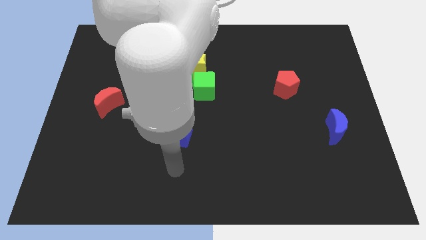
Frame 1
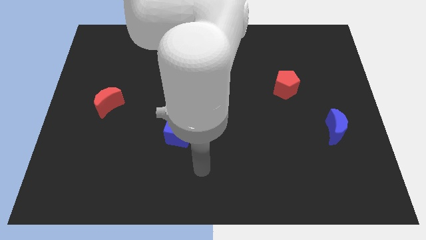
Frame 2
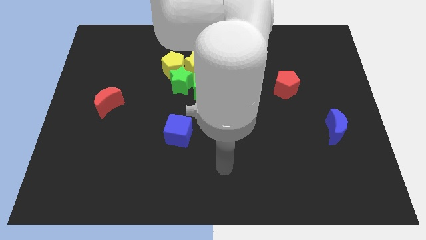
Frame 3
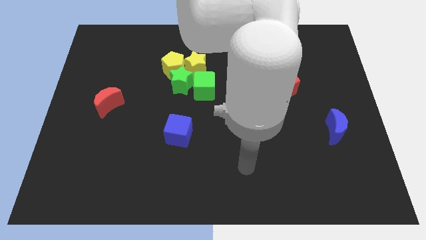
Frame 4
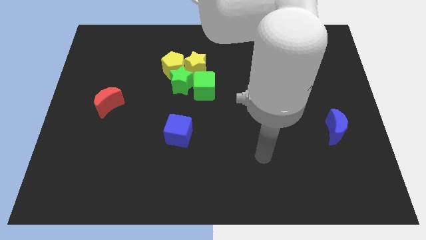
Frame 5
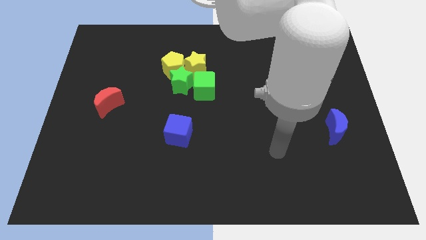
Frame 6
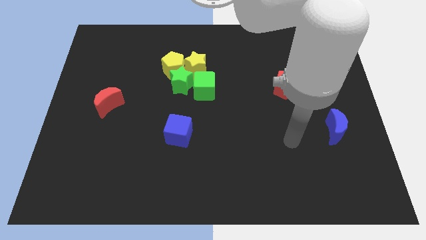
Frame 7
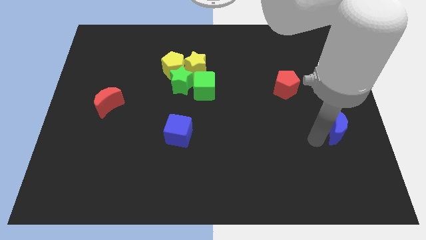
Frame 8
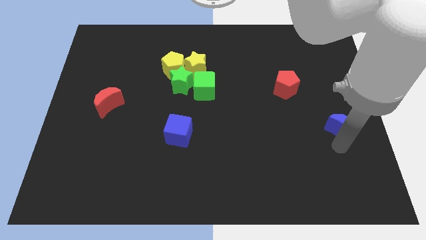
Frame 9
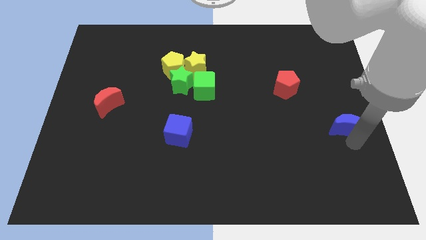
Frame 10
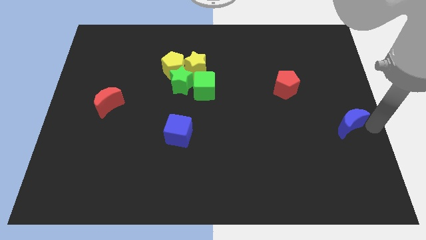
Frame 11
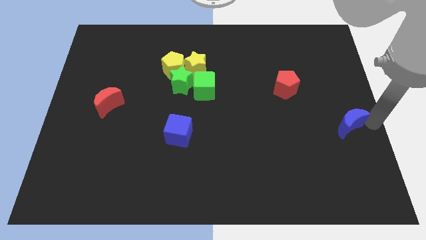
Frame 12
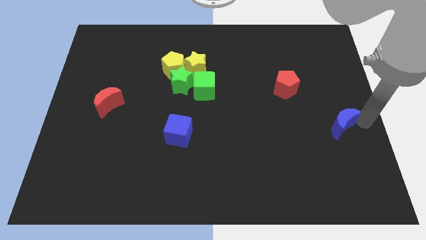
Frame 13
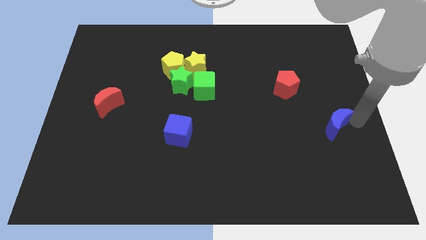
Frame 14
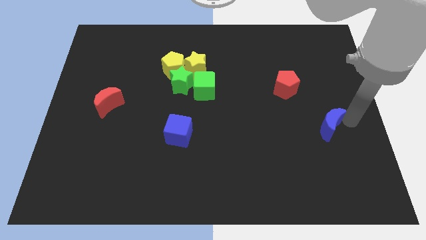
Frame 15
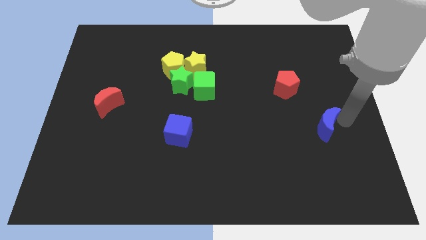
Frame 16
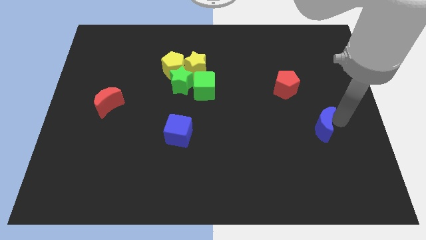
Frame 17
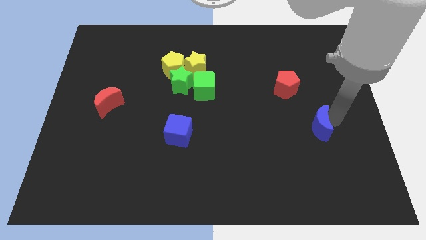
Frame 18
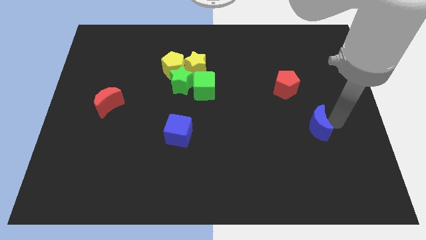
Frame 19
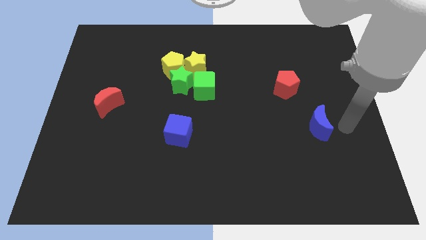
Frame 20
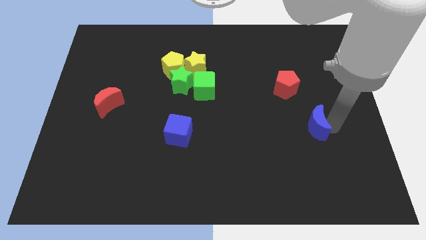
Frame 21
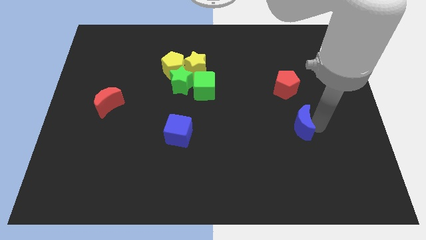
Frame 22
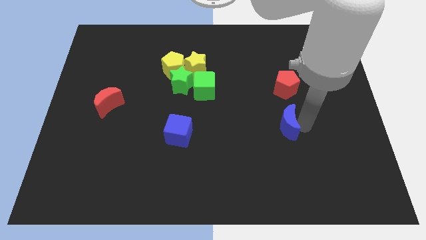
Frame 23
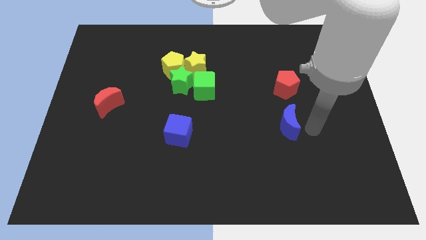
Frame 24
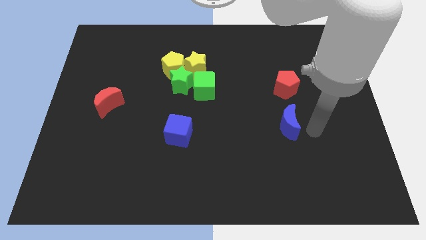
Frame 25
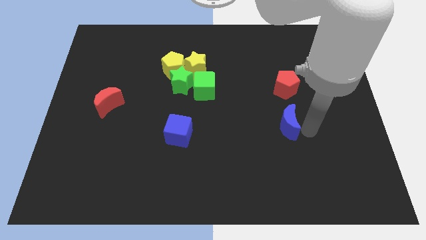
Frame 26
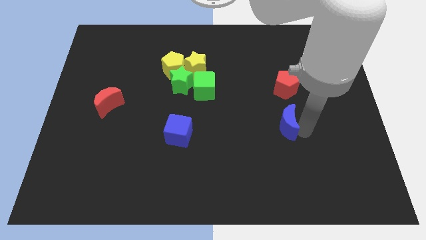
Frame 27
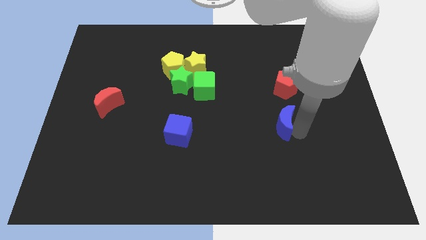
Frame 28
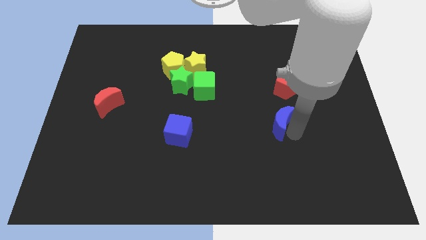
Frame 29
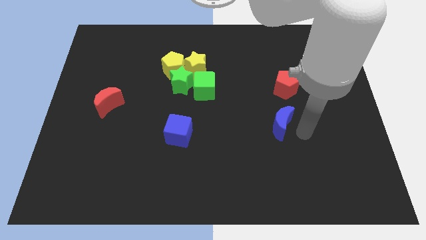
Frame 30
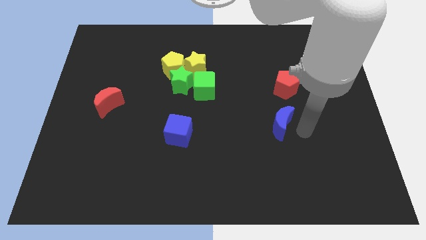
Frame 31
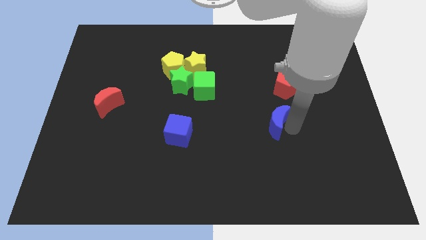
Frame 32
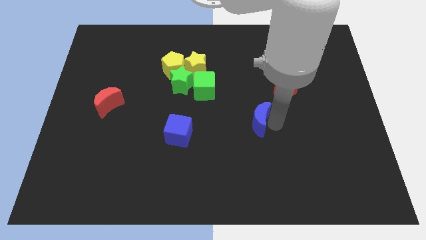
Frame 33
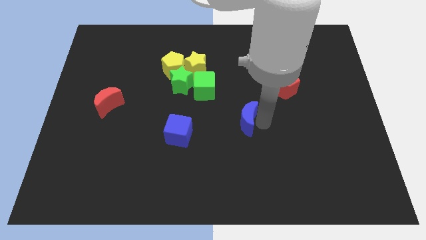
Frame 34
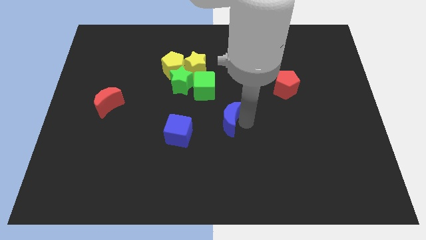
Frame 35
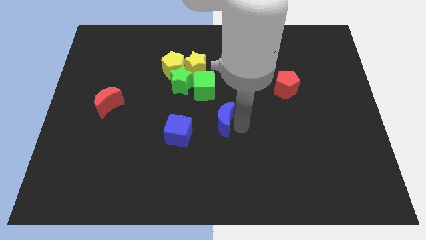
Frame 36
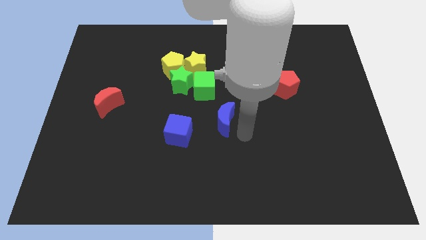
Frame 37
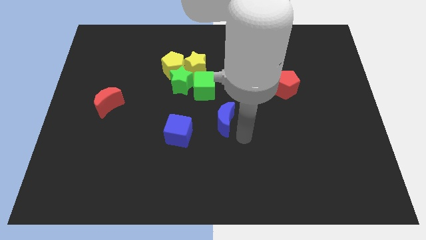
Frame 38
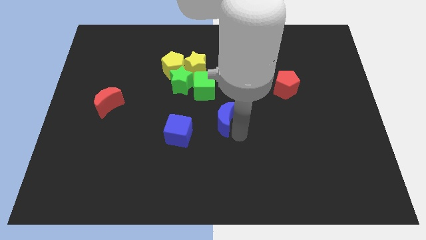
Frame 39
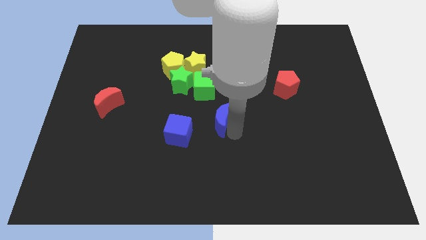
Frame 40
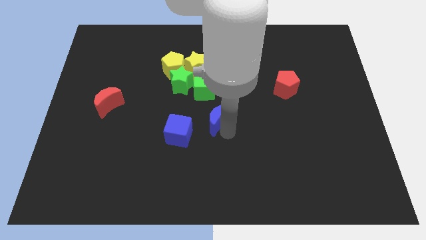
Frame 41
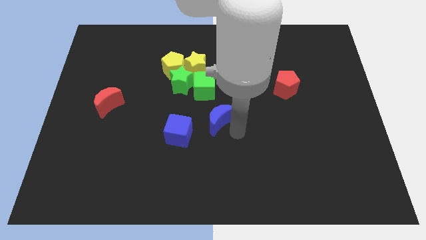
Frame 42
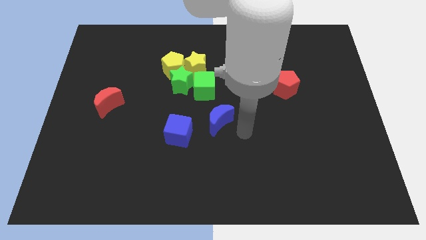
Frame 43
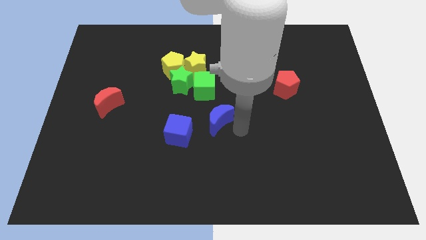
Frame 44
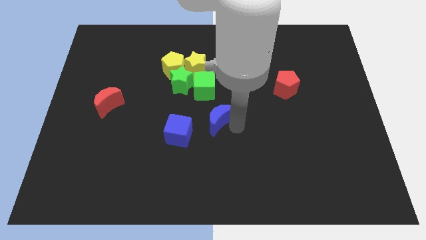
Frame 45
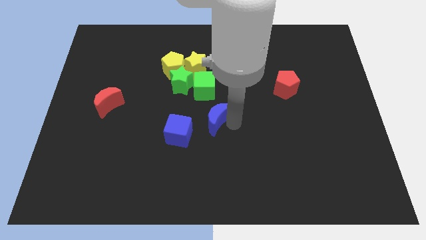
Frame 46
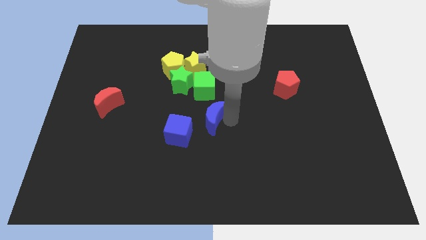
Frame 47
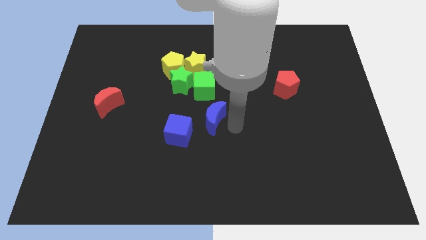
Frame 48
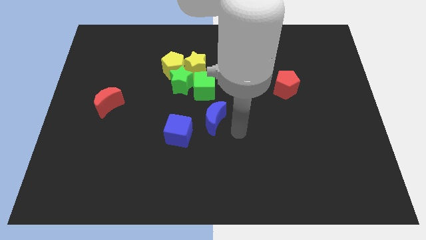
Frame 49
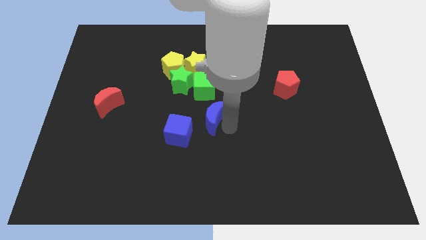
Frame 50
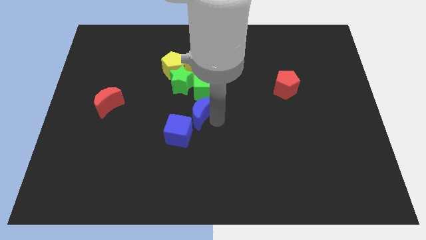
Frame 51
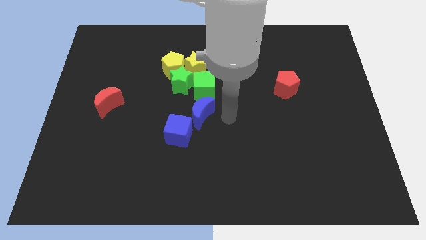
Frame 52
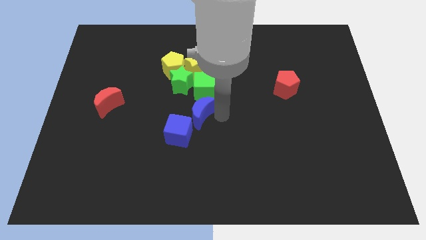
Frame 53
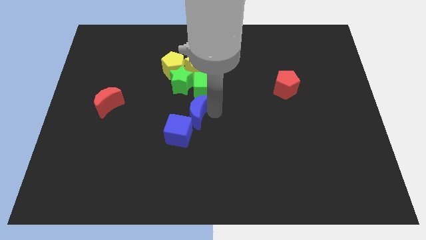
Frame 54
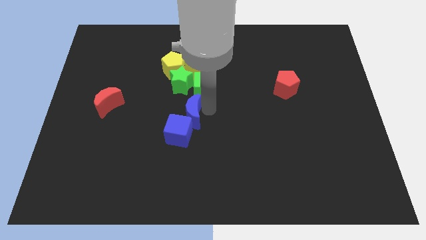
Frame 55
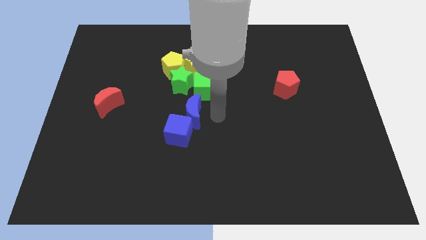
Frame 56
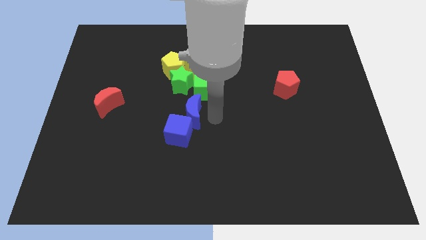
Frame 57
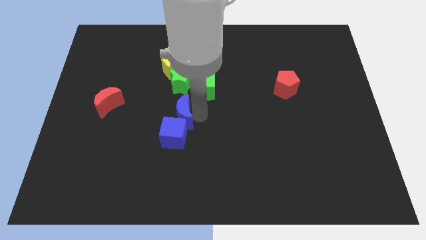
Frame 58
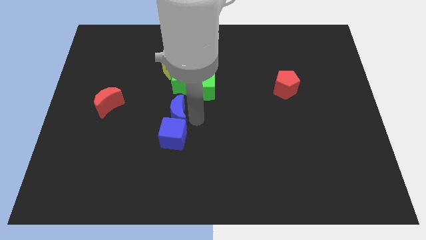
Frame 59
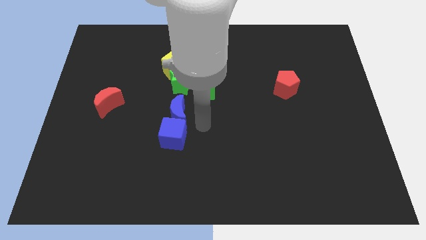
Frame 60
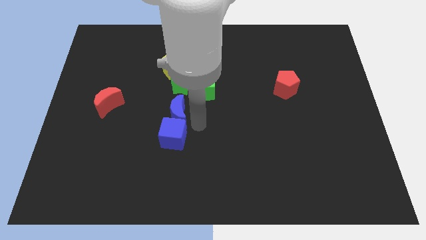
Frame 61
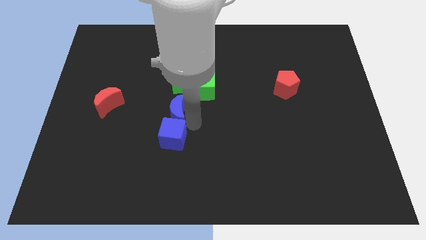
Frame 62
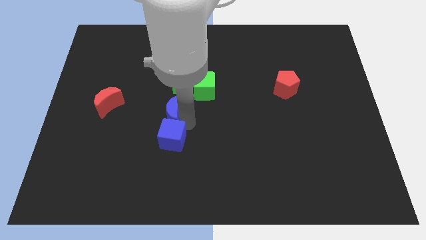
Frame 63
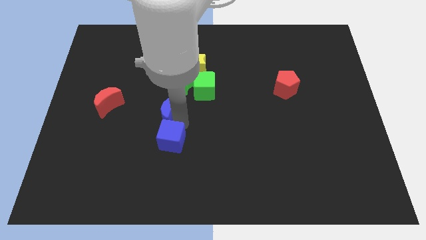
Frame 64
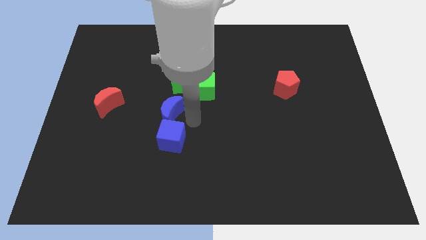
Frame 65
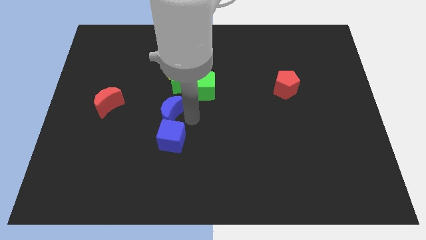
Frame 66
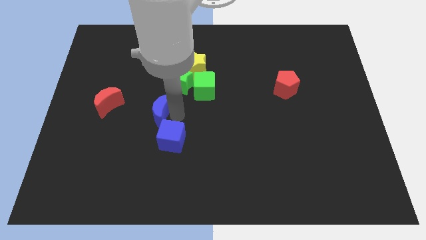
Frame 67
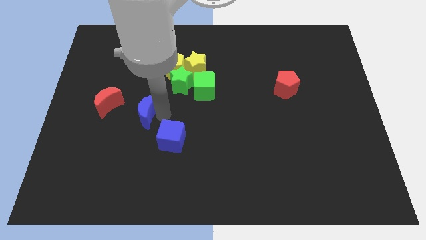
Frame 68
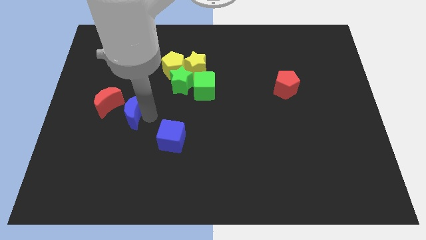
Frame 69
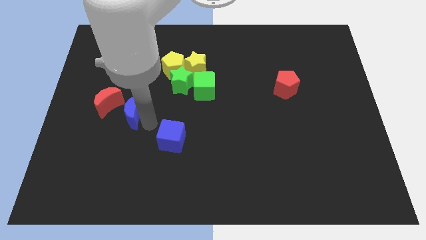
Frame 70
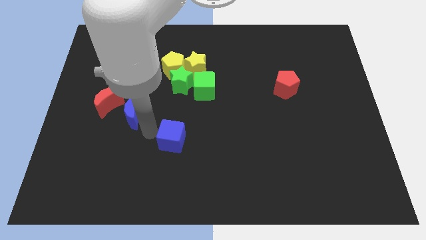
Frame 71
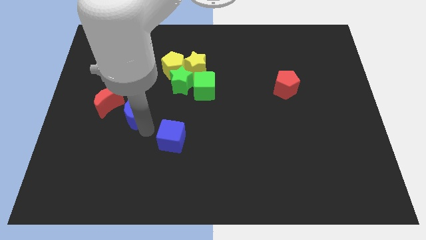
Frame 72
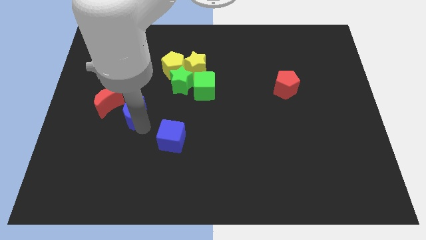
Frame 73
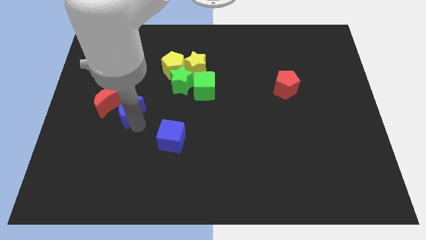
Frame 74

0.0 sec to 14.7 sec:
put the blue moon towards the red moon
